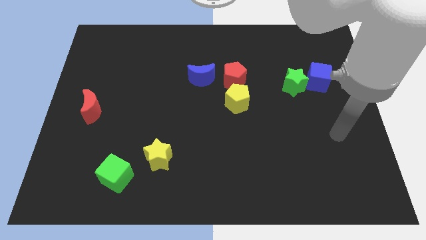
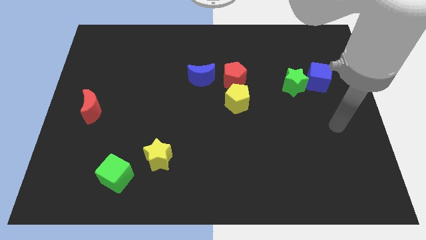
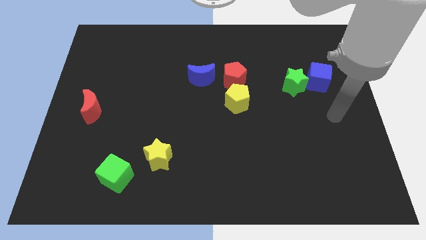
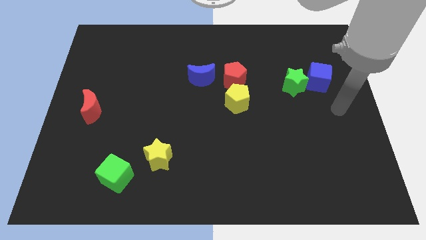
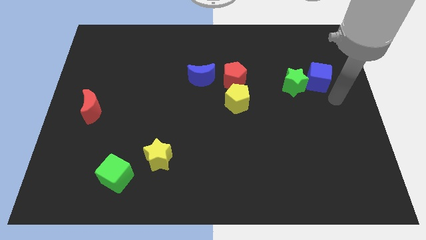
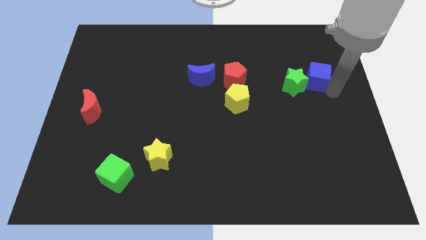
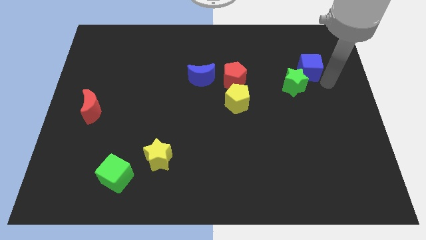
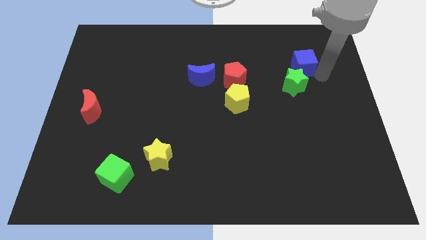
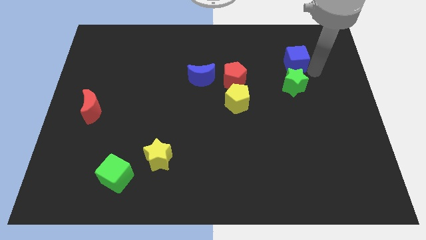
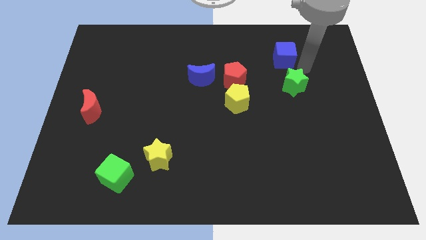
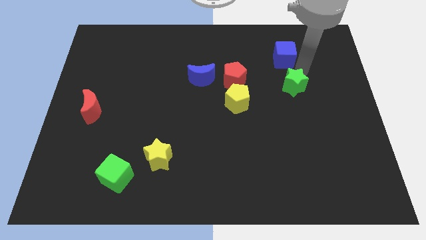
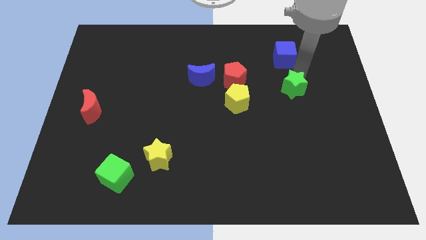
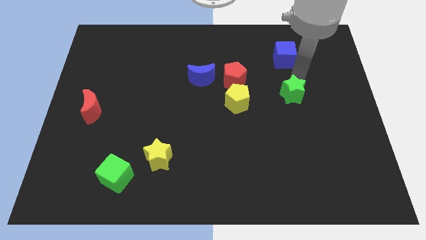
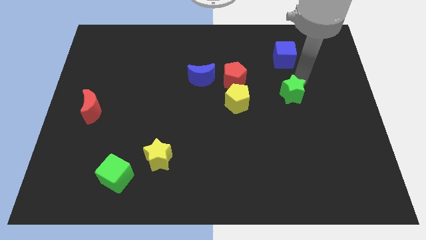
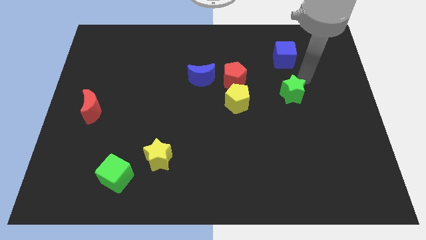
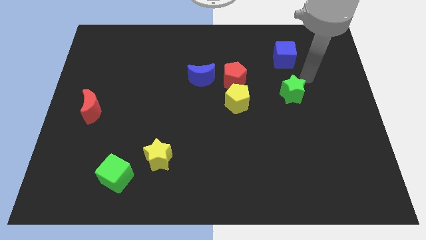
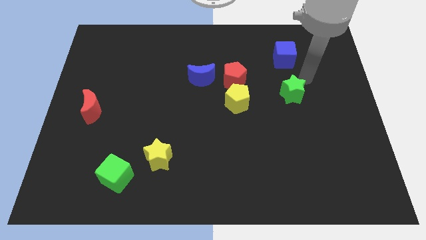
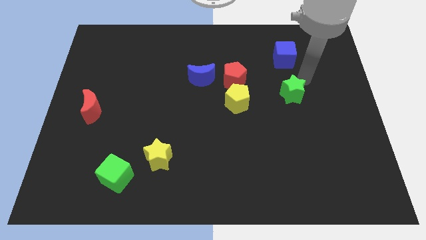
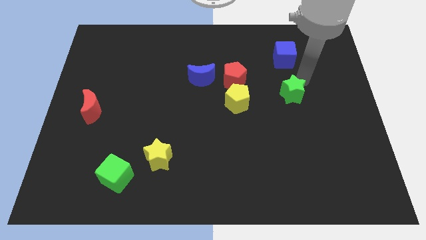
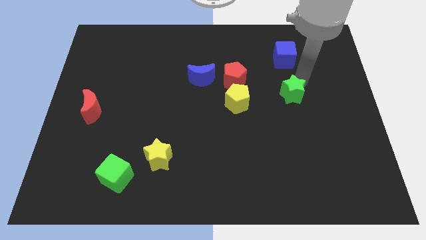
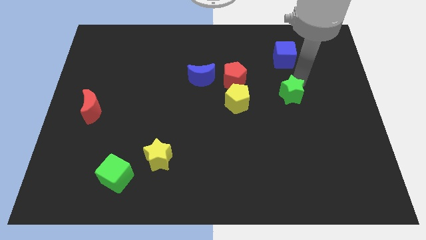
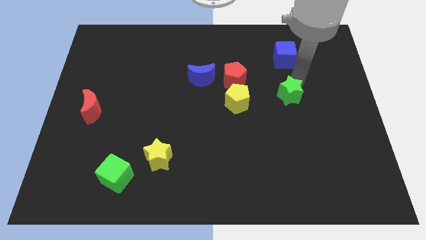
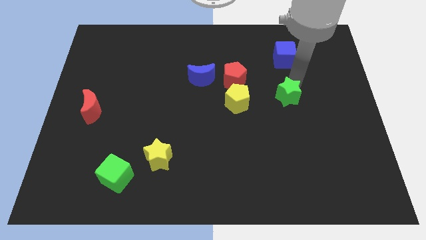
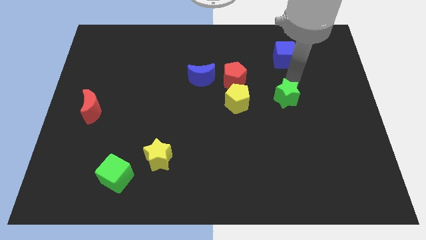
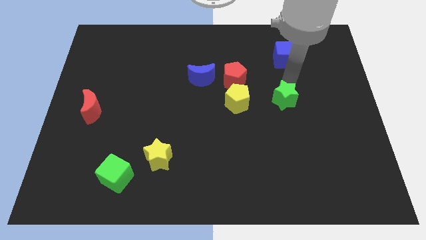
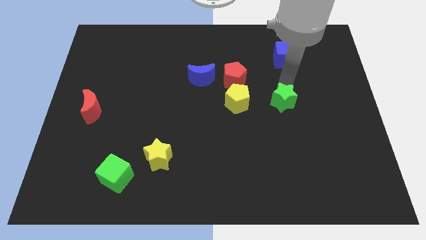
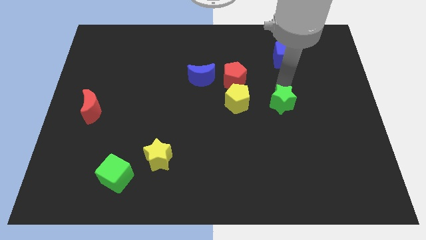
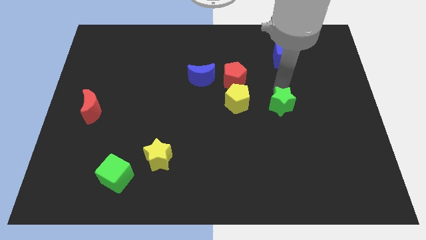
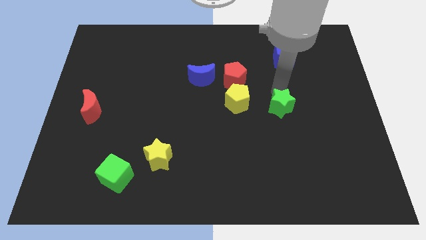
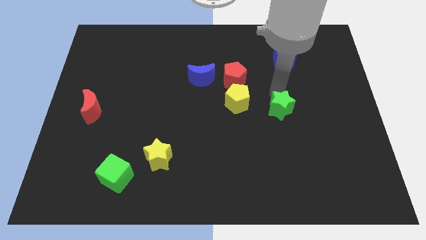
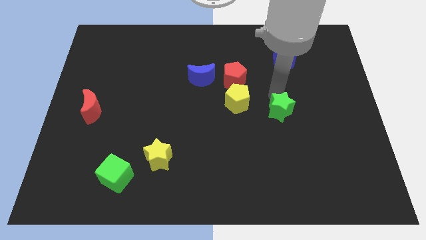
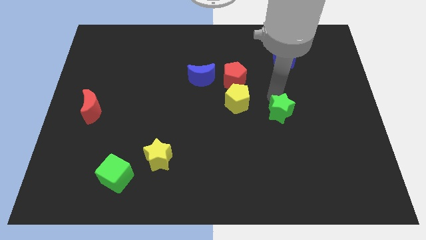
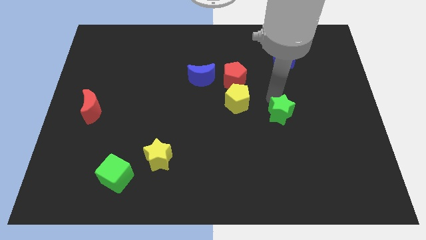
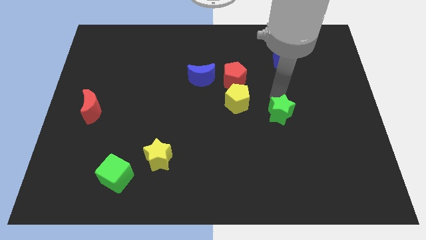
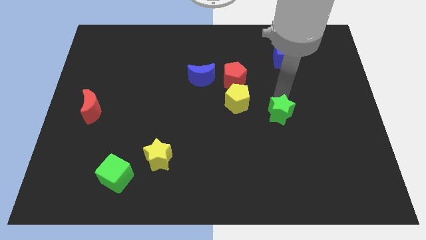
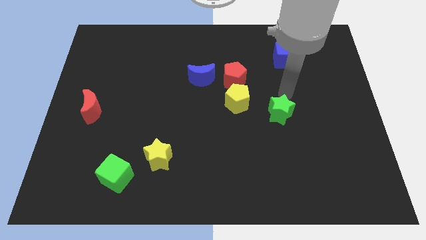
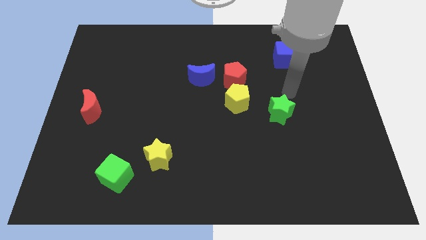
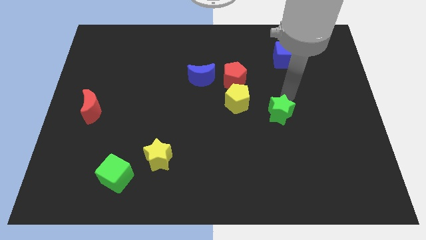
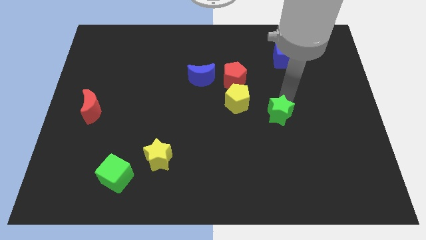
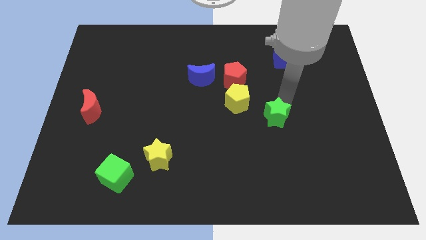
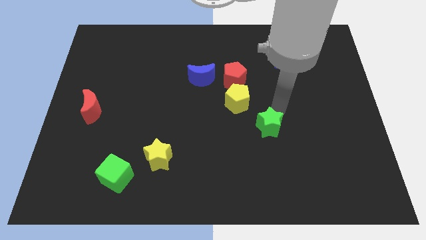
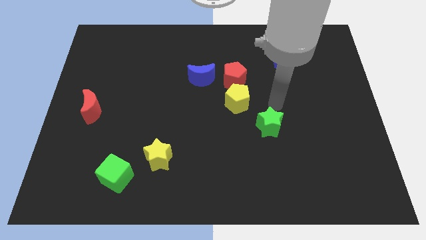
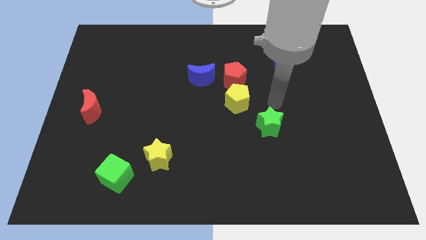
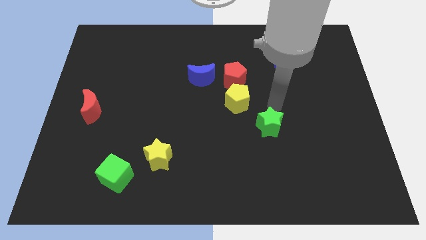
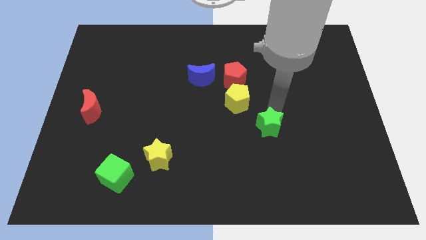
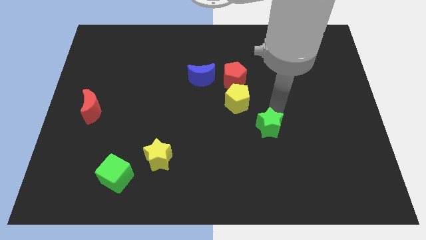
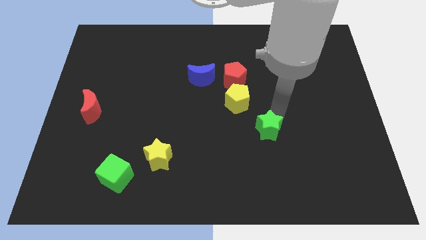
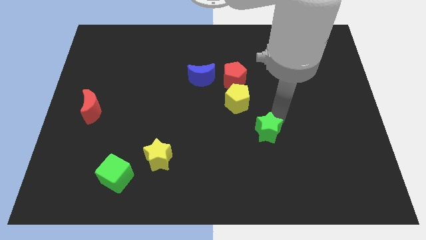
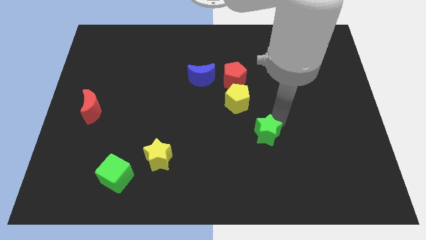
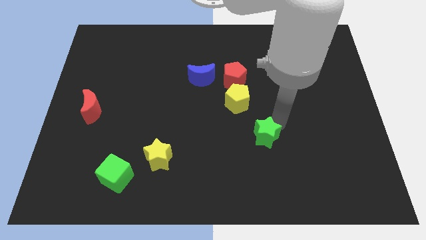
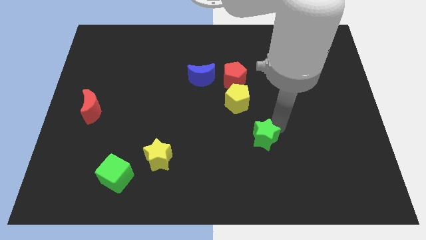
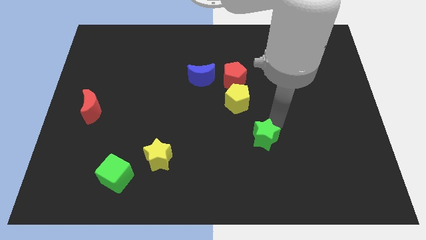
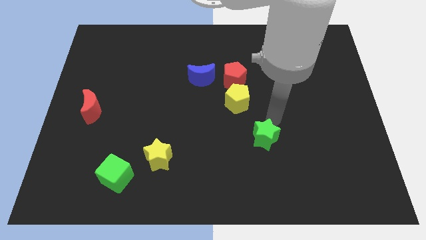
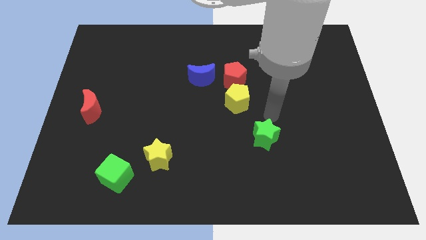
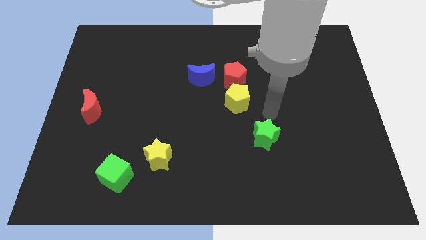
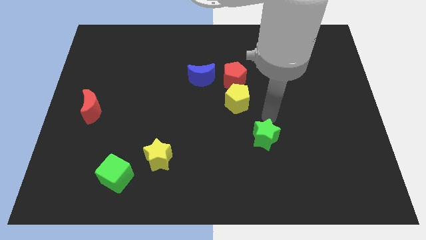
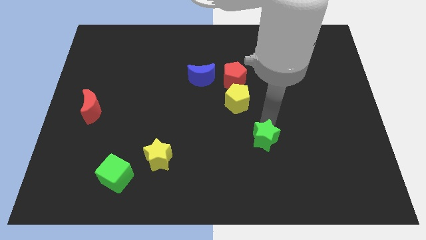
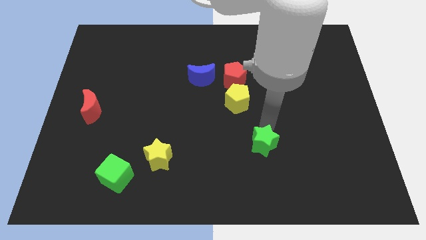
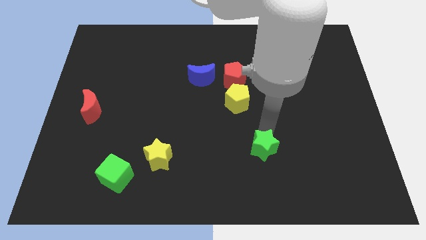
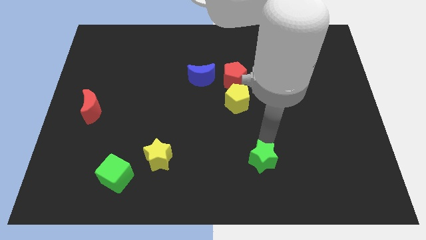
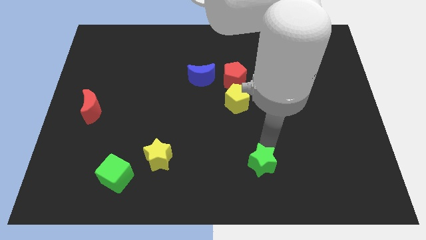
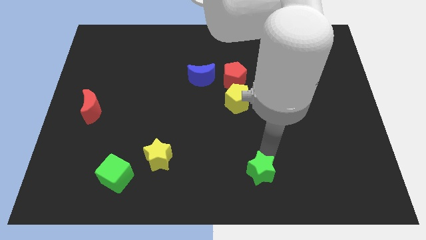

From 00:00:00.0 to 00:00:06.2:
put the green star to the bottom side

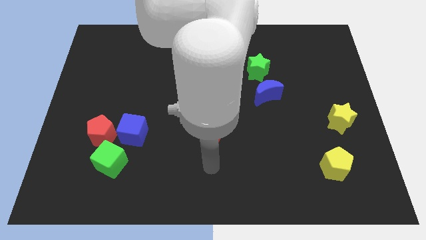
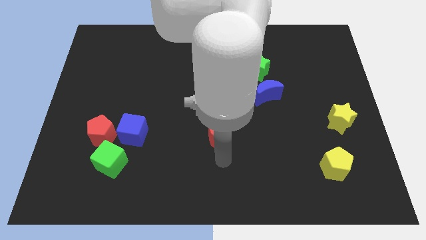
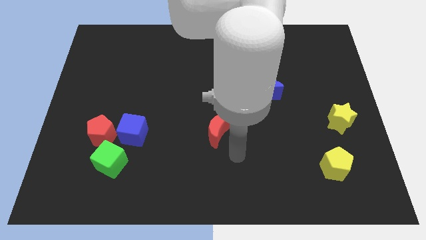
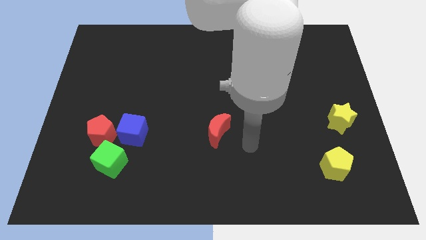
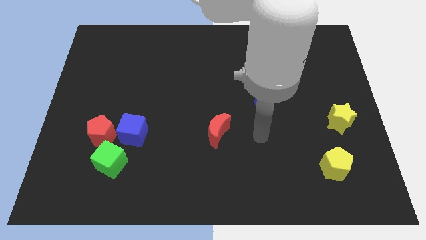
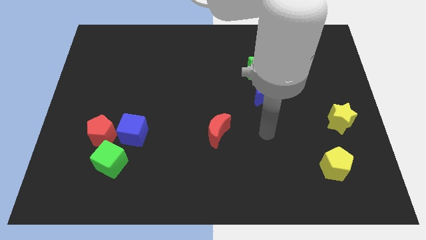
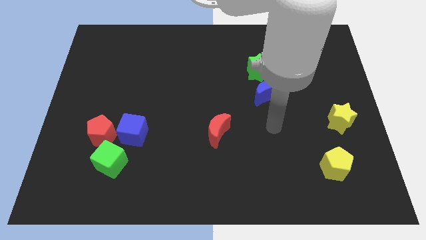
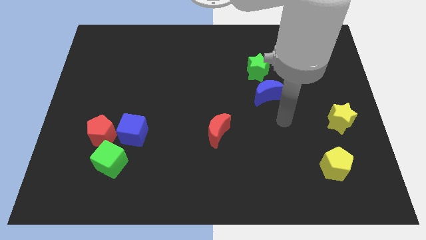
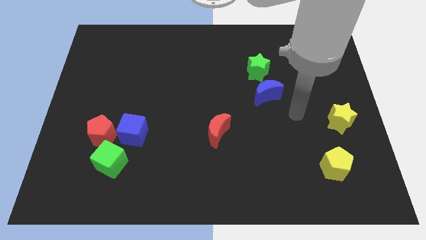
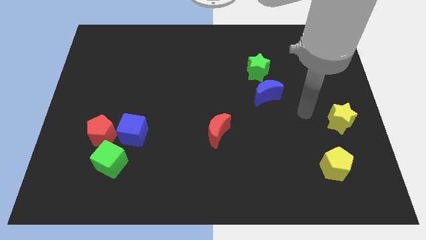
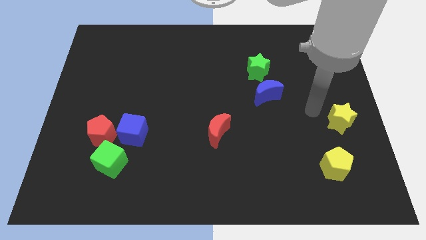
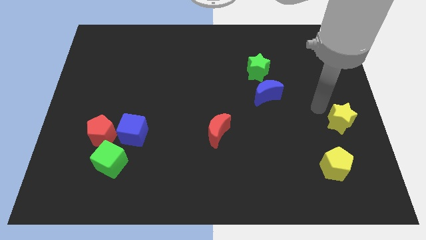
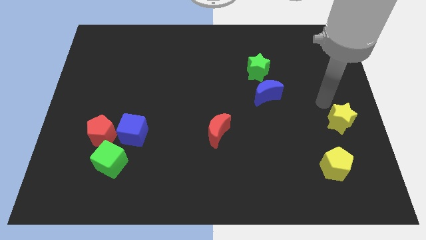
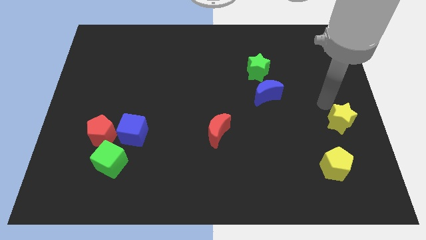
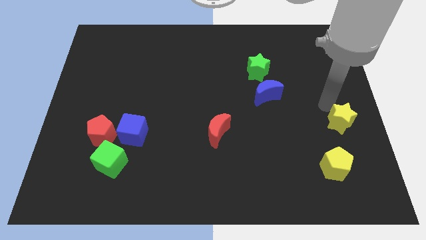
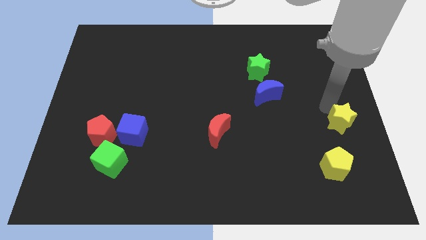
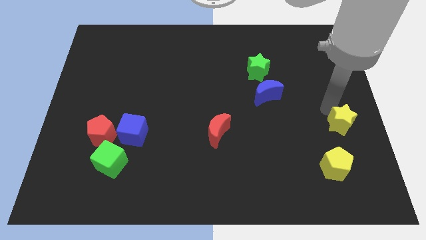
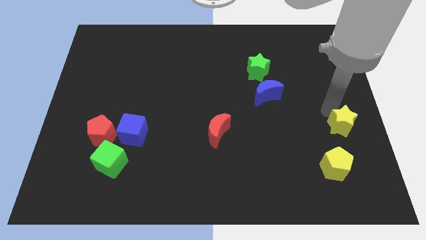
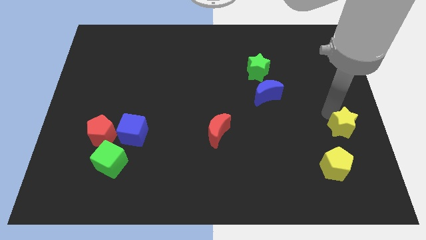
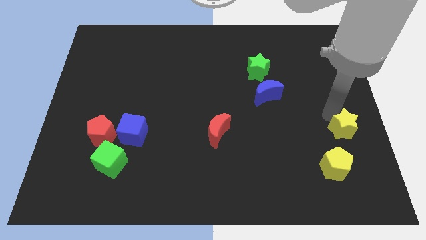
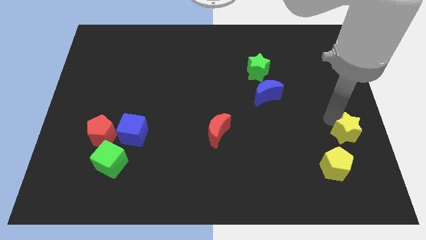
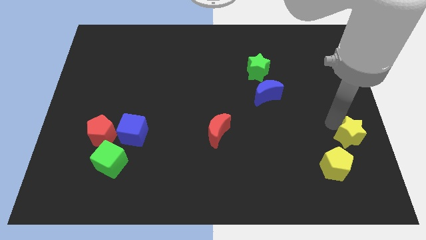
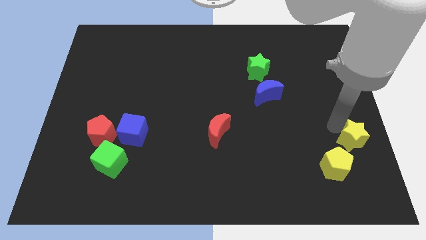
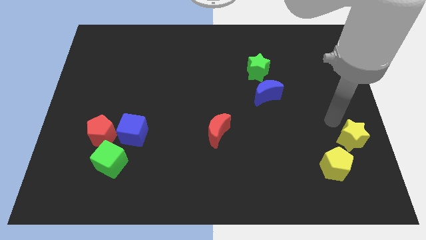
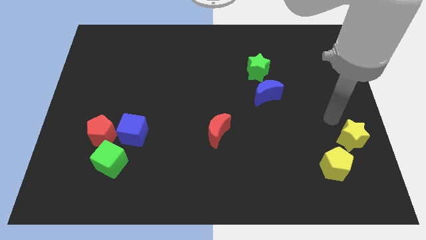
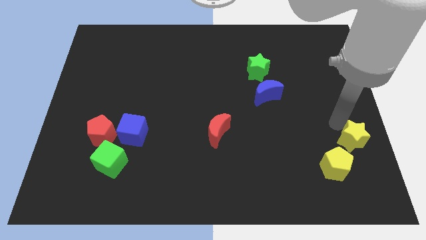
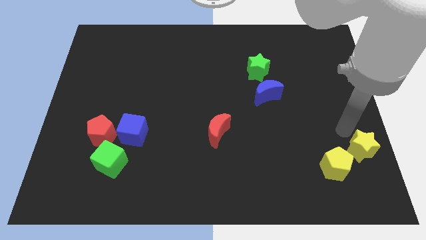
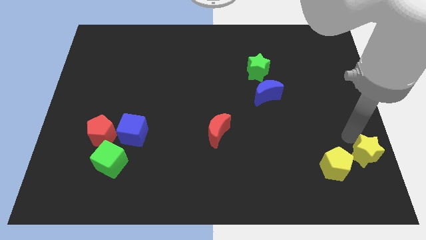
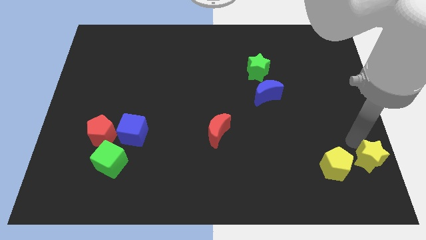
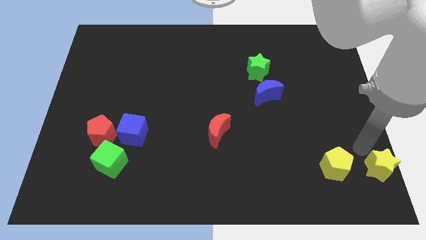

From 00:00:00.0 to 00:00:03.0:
move the yellow star to the bottom right corner
